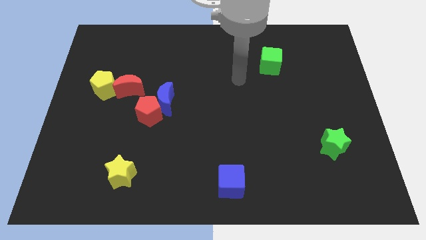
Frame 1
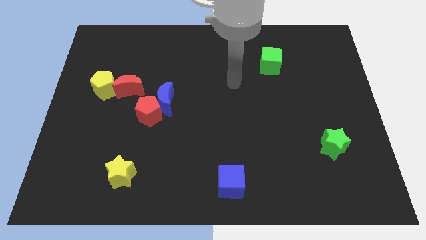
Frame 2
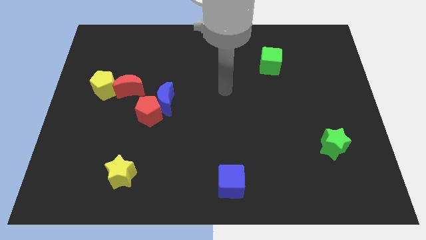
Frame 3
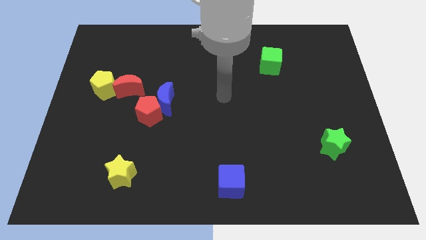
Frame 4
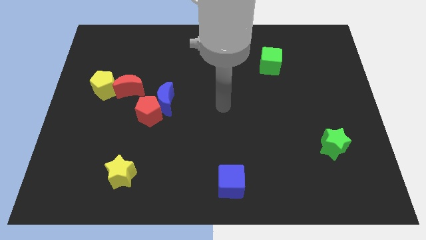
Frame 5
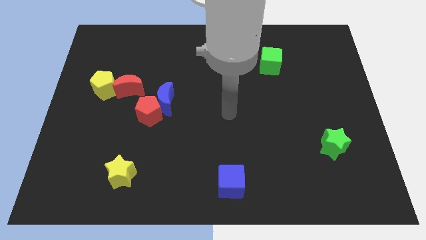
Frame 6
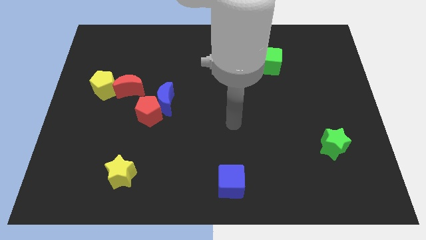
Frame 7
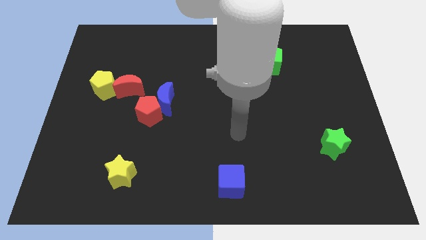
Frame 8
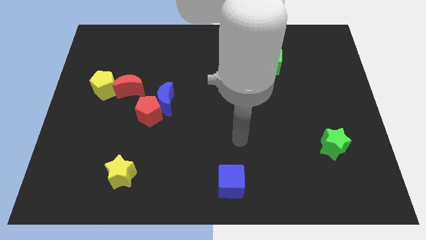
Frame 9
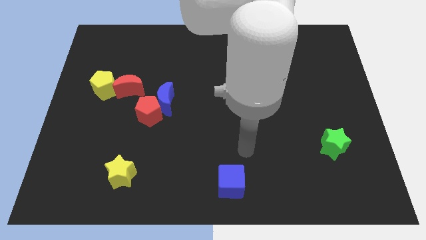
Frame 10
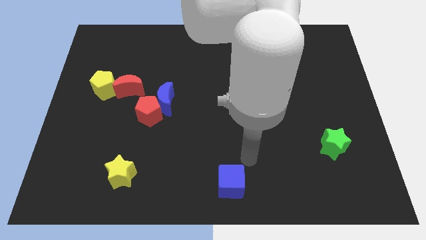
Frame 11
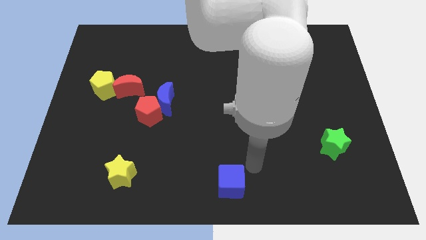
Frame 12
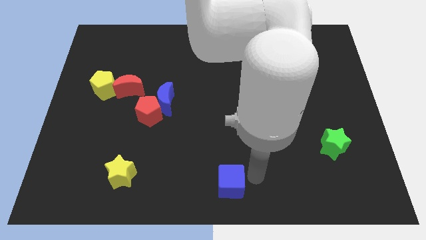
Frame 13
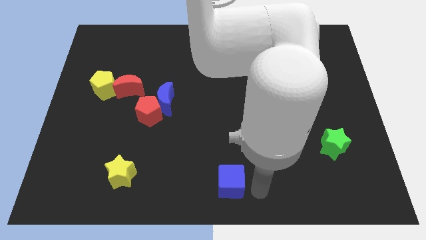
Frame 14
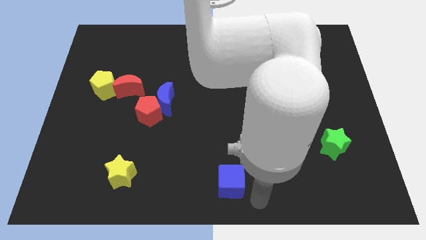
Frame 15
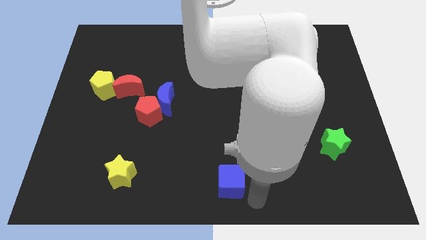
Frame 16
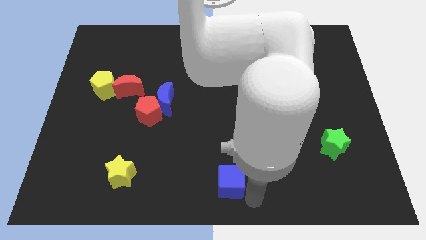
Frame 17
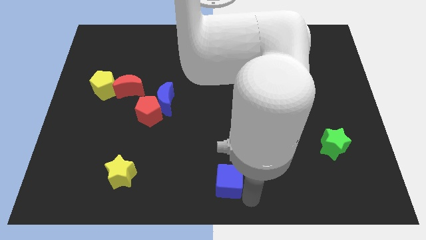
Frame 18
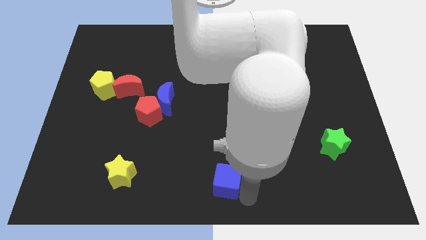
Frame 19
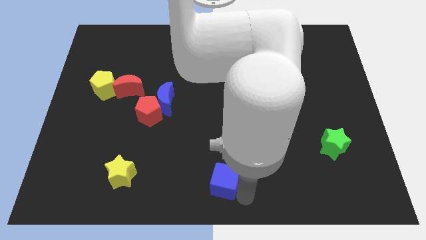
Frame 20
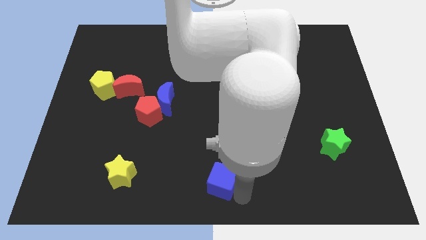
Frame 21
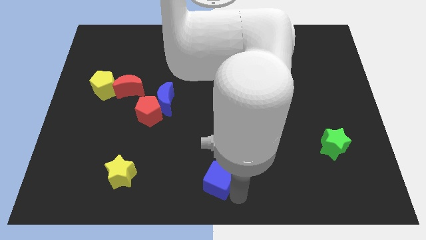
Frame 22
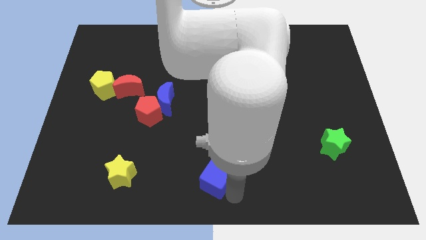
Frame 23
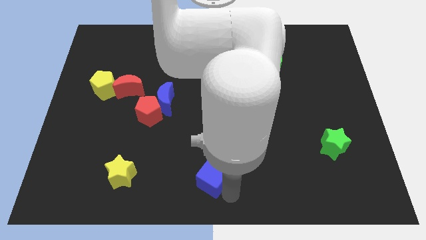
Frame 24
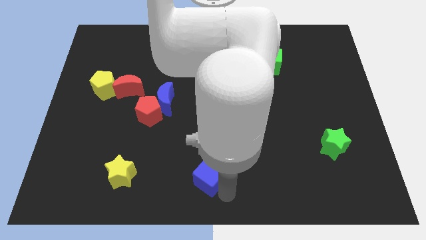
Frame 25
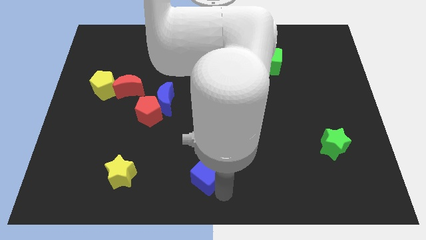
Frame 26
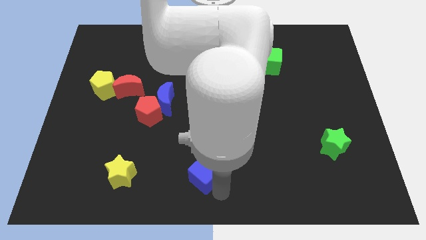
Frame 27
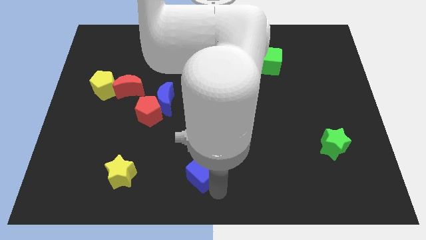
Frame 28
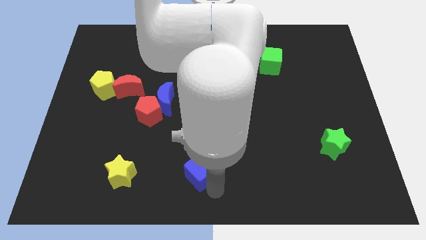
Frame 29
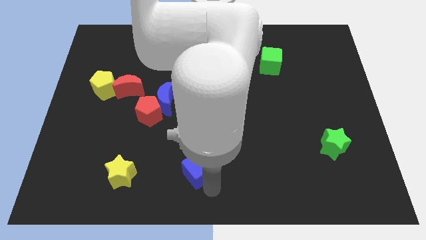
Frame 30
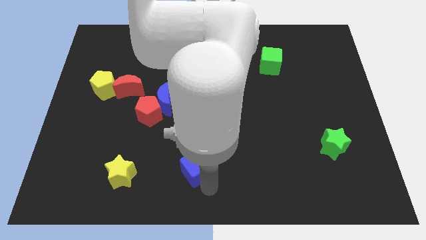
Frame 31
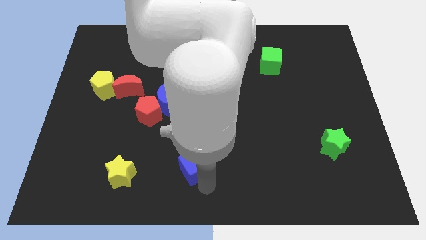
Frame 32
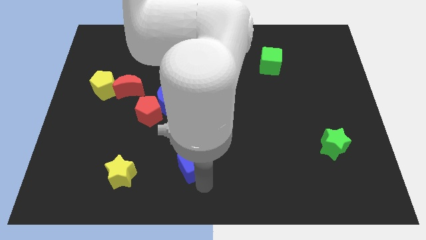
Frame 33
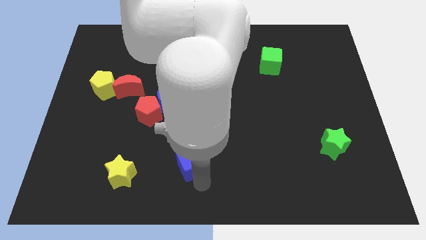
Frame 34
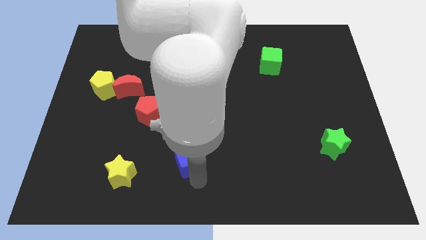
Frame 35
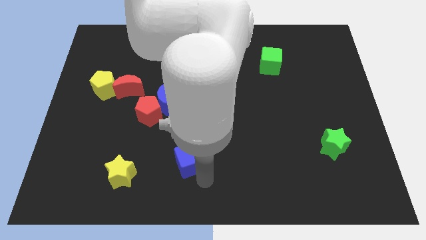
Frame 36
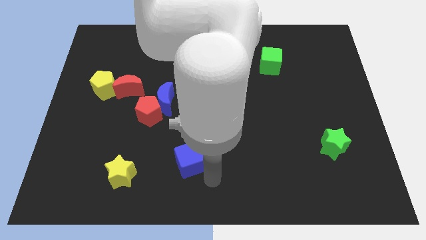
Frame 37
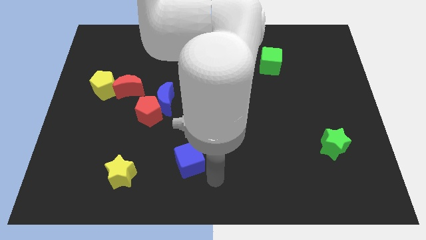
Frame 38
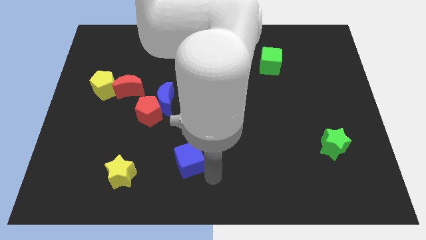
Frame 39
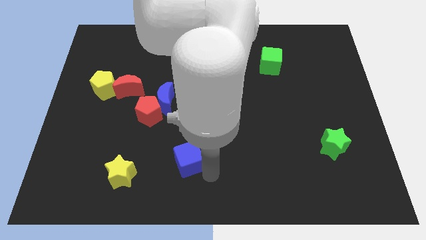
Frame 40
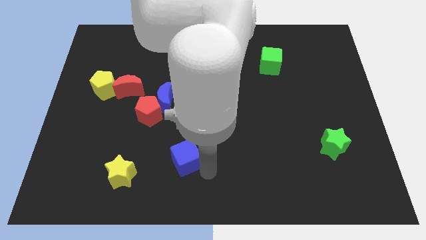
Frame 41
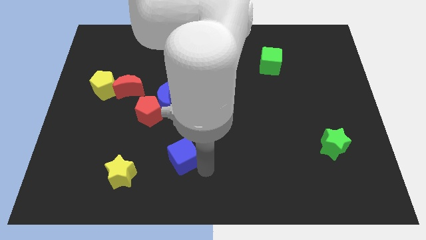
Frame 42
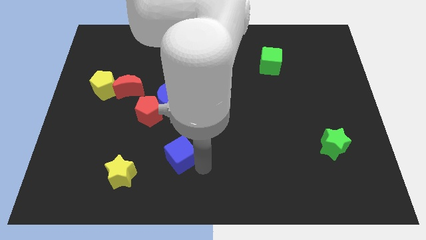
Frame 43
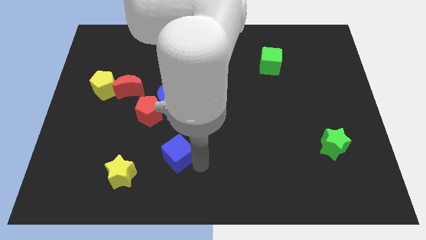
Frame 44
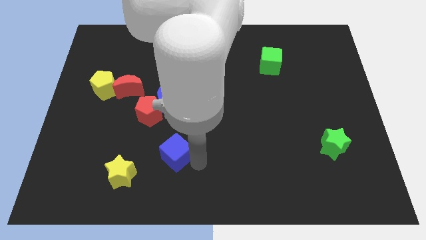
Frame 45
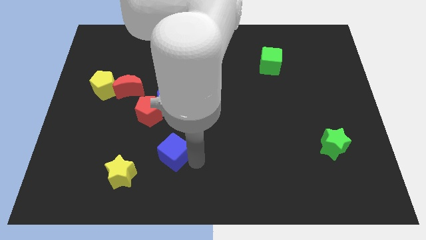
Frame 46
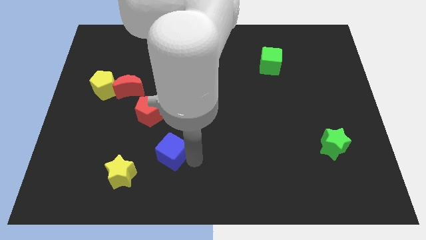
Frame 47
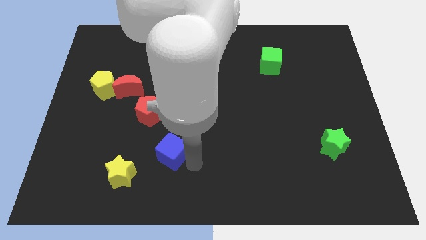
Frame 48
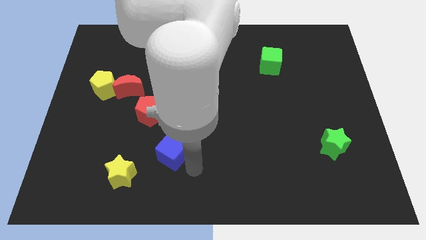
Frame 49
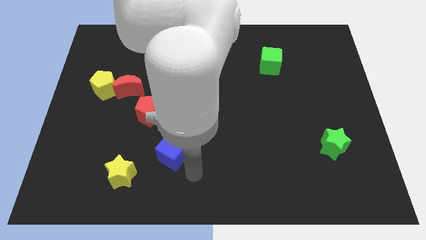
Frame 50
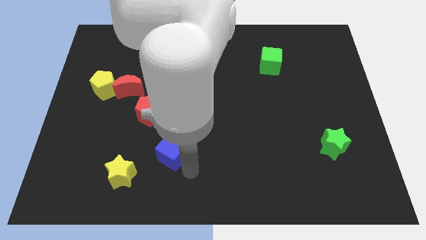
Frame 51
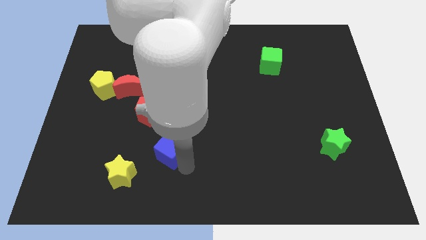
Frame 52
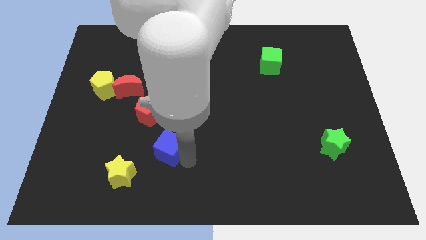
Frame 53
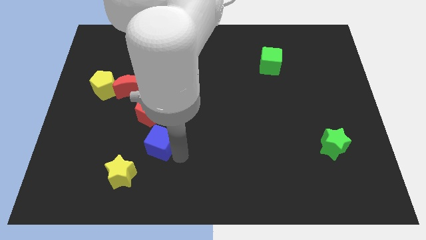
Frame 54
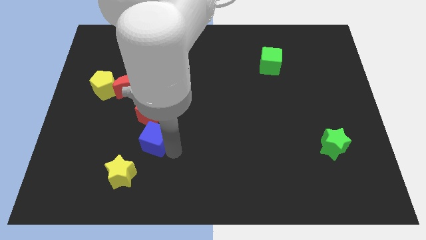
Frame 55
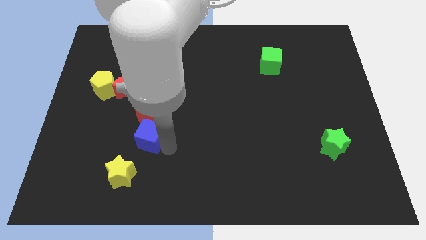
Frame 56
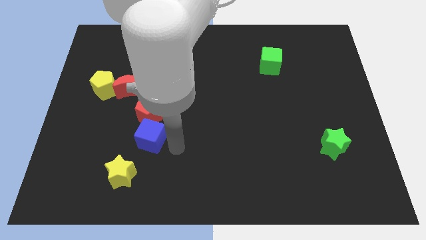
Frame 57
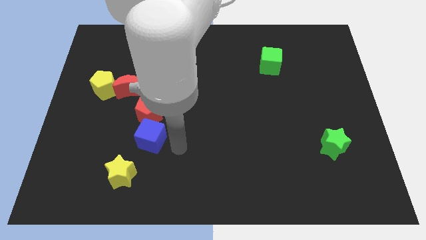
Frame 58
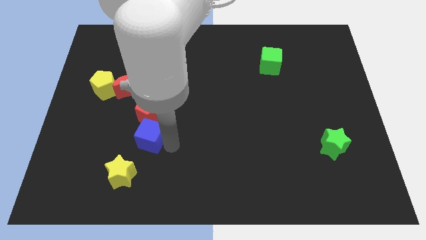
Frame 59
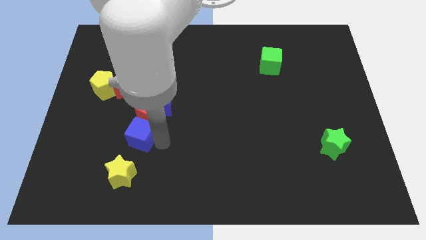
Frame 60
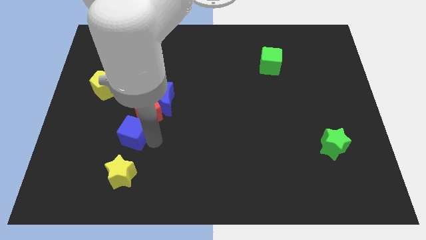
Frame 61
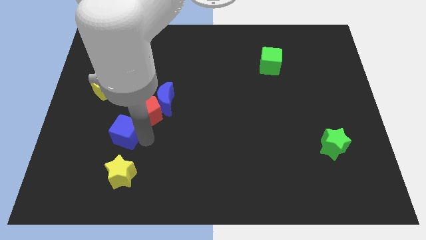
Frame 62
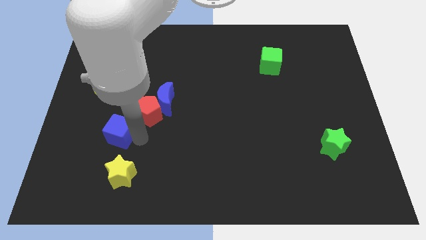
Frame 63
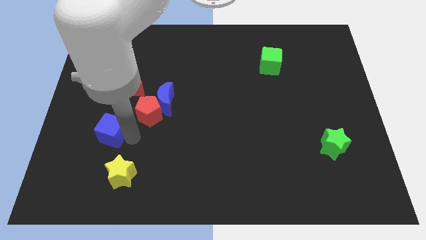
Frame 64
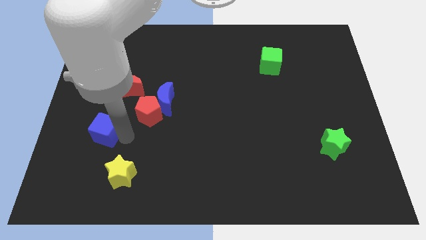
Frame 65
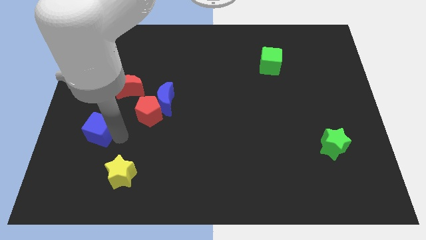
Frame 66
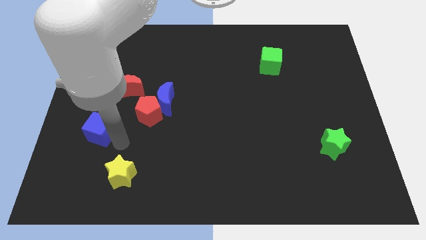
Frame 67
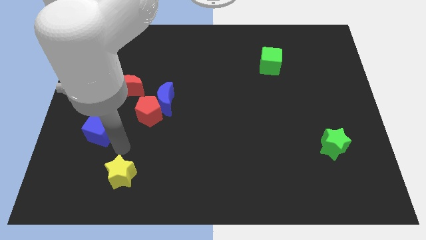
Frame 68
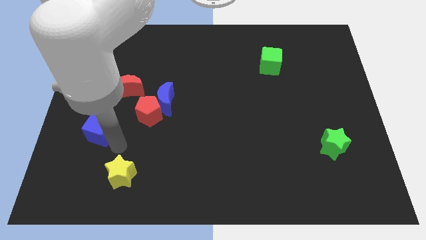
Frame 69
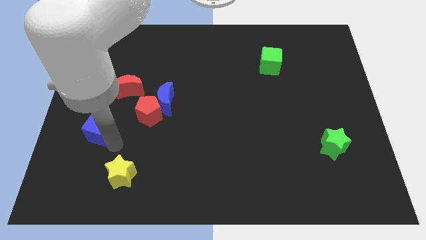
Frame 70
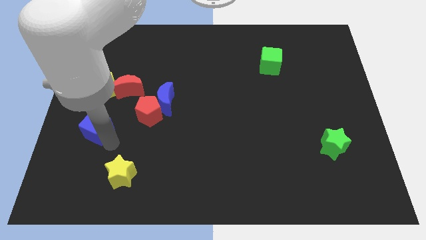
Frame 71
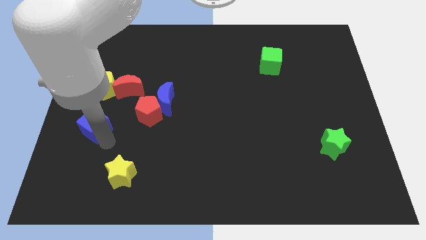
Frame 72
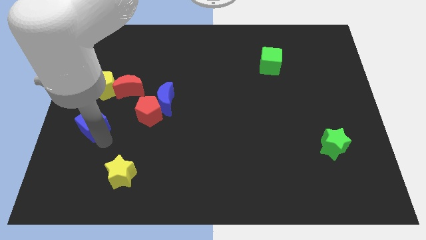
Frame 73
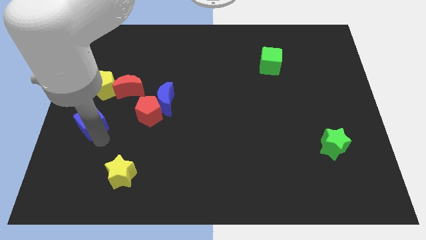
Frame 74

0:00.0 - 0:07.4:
slide the blue cube to the center left
